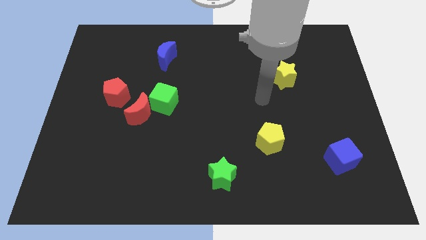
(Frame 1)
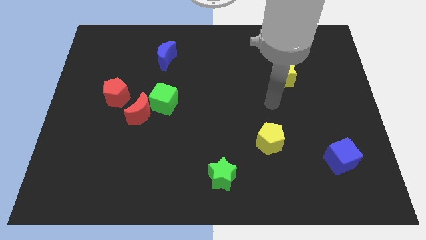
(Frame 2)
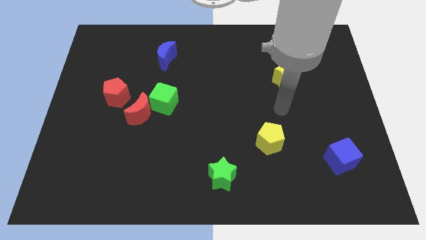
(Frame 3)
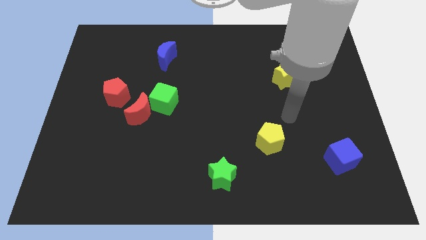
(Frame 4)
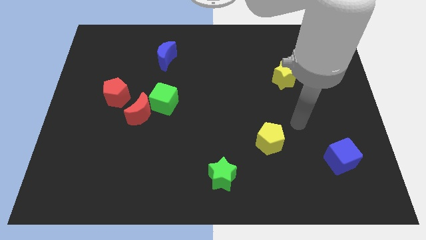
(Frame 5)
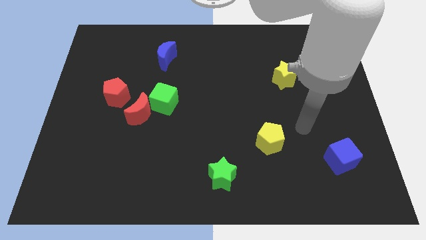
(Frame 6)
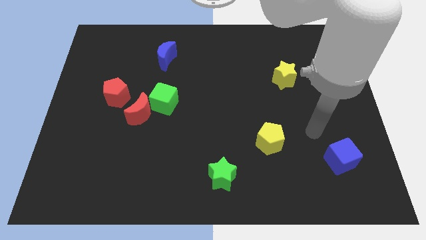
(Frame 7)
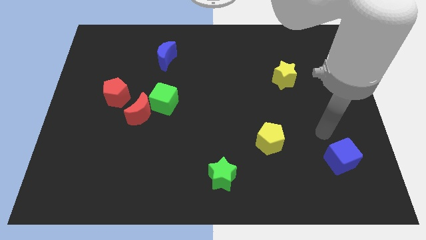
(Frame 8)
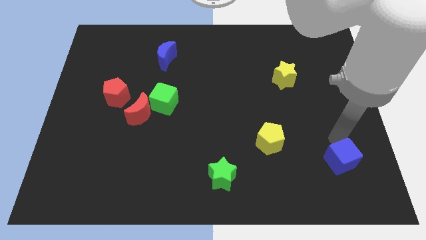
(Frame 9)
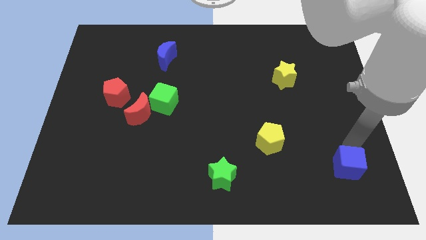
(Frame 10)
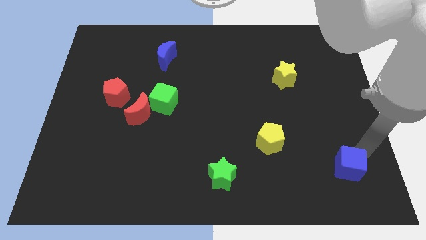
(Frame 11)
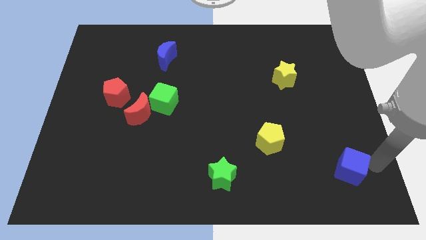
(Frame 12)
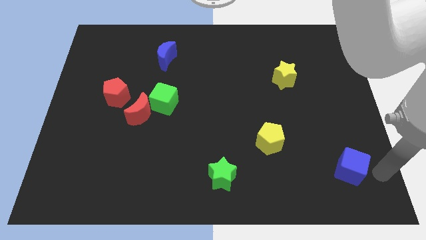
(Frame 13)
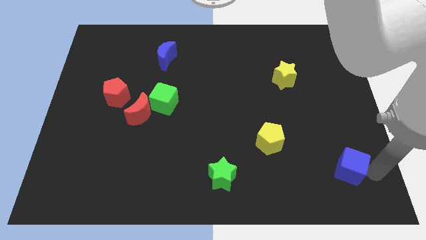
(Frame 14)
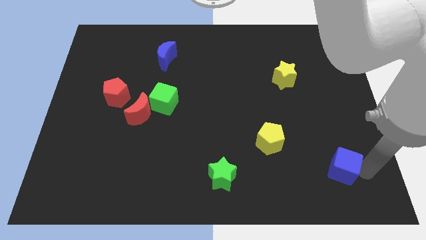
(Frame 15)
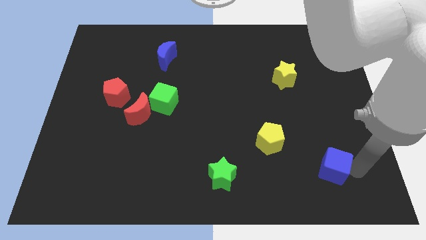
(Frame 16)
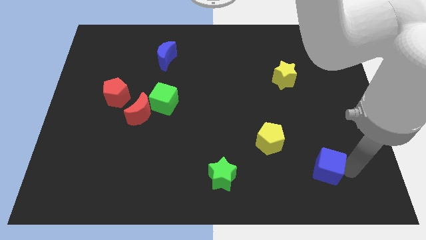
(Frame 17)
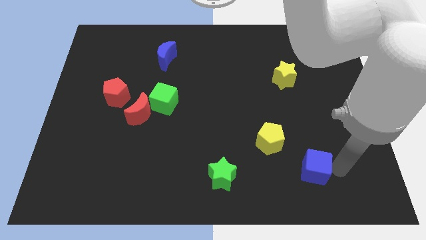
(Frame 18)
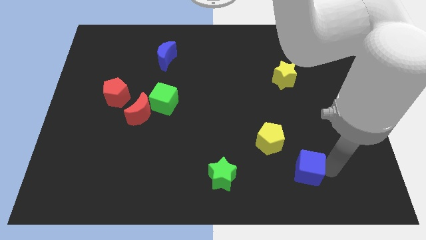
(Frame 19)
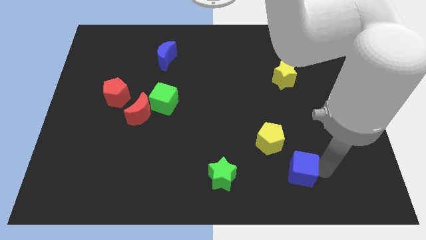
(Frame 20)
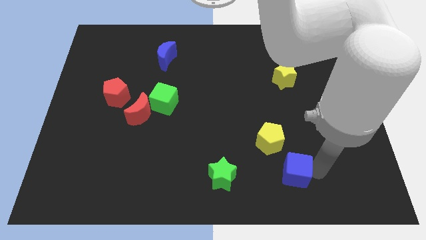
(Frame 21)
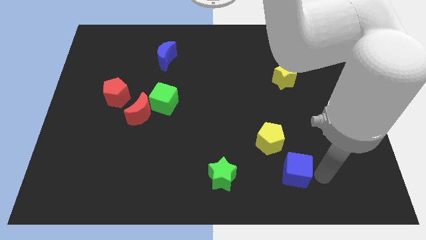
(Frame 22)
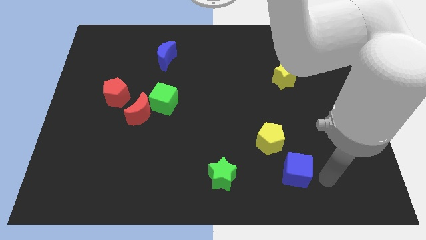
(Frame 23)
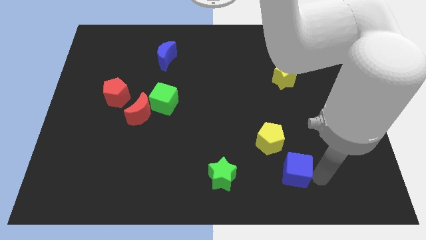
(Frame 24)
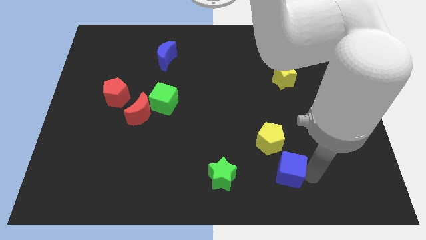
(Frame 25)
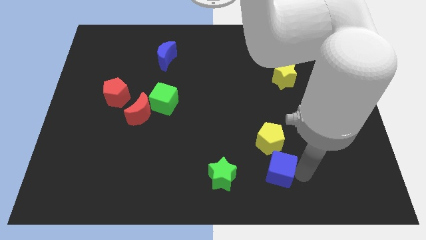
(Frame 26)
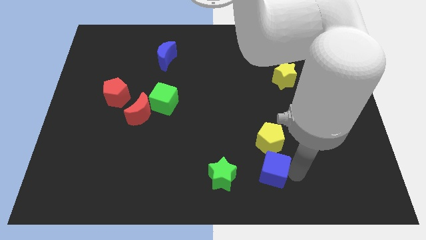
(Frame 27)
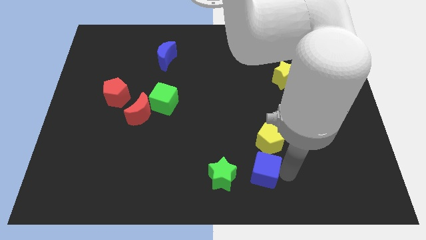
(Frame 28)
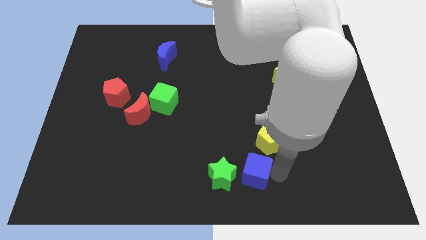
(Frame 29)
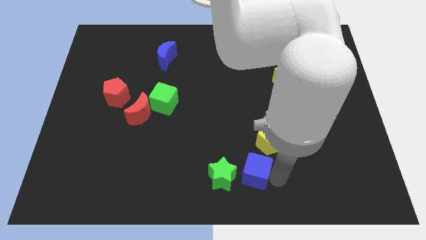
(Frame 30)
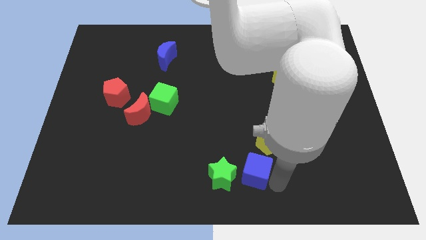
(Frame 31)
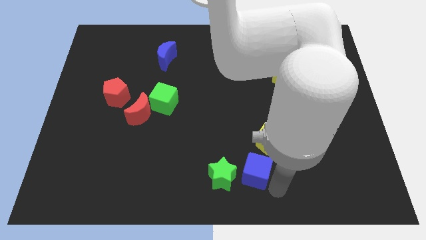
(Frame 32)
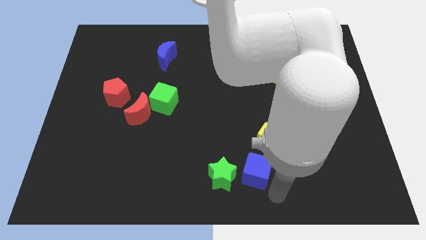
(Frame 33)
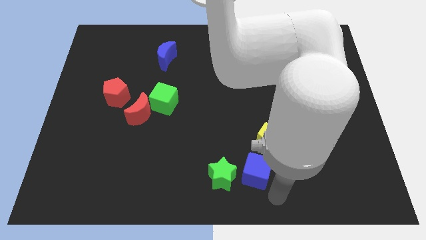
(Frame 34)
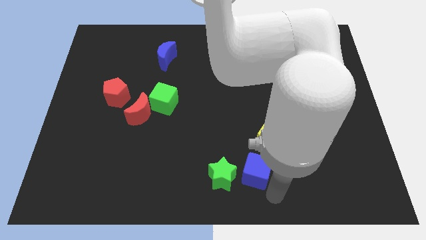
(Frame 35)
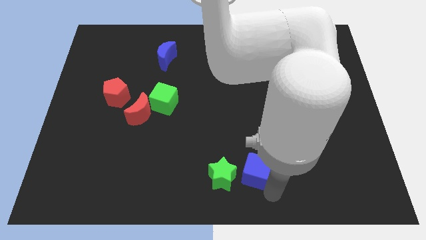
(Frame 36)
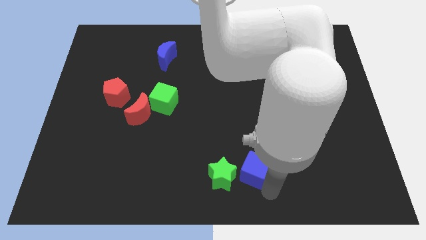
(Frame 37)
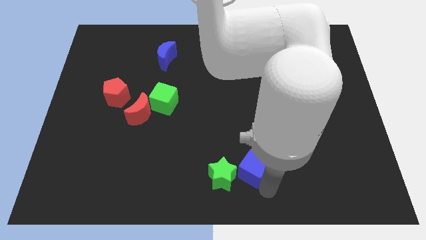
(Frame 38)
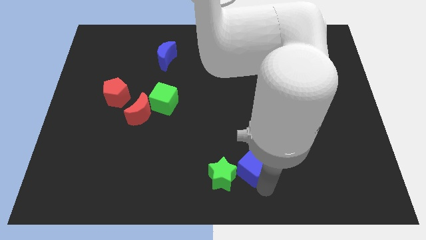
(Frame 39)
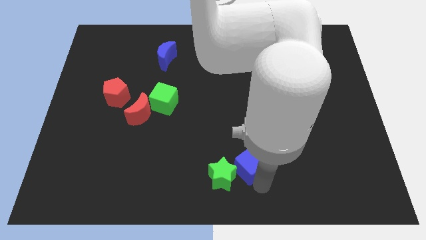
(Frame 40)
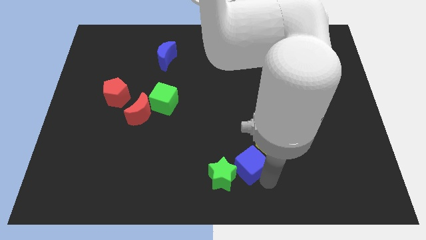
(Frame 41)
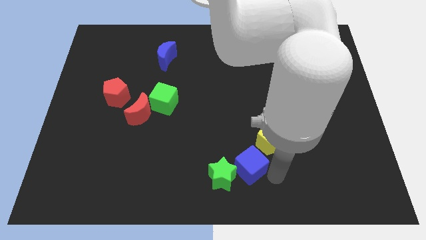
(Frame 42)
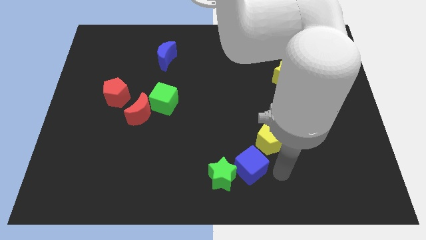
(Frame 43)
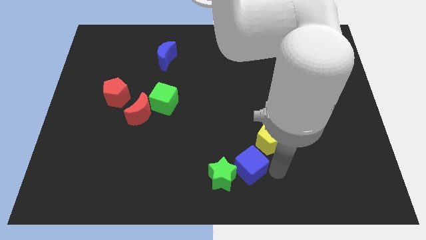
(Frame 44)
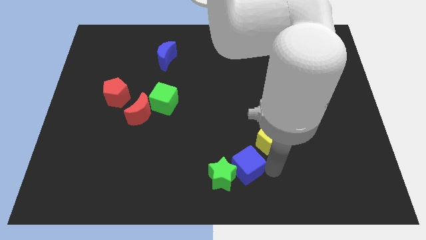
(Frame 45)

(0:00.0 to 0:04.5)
push the blue cube to the left

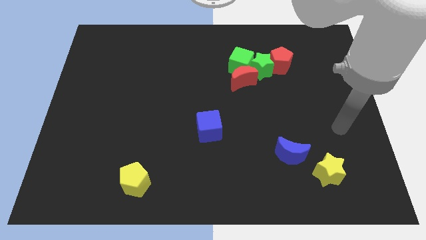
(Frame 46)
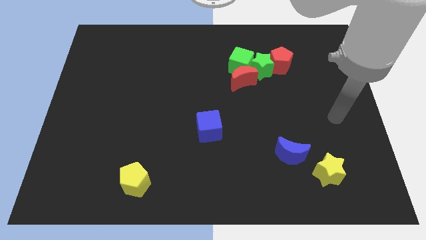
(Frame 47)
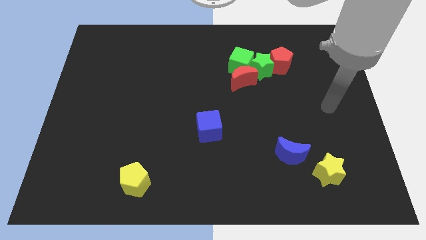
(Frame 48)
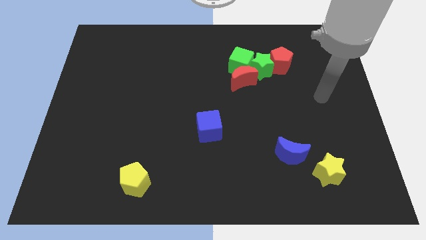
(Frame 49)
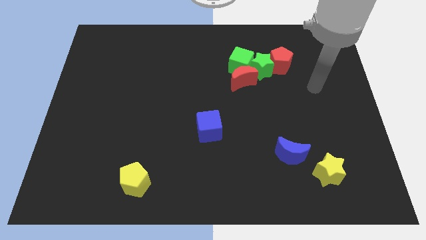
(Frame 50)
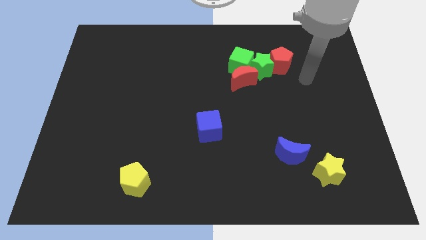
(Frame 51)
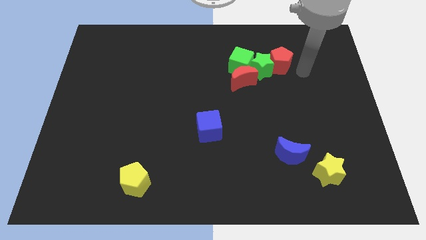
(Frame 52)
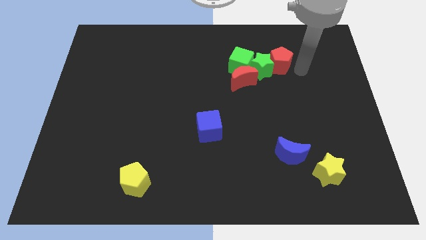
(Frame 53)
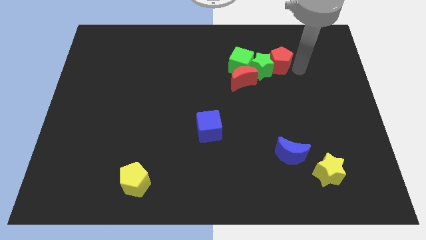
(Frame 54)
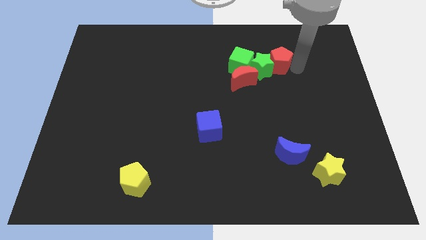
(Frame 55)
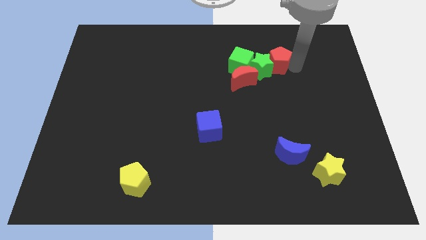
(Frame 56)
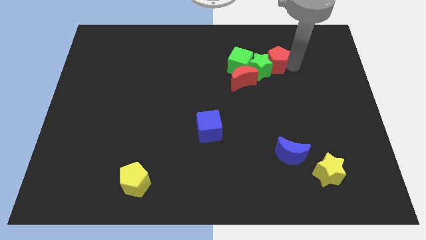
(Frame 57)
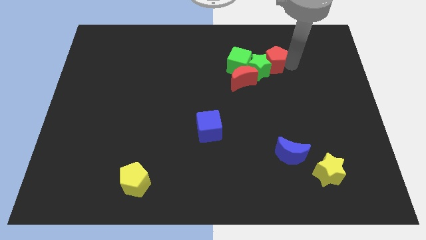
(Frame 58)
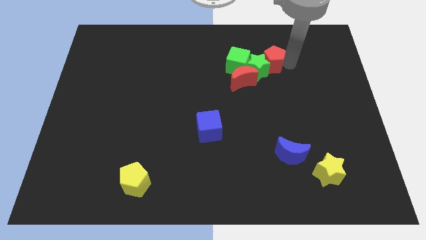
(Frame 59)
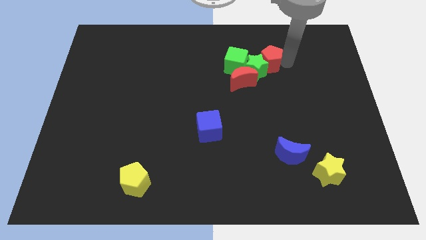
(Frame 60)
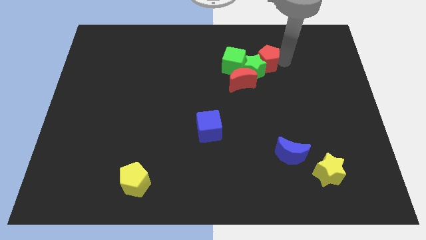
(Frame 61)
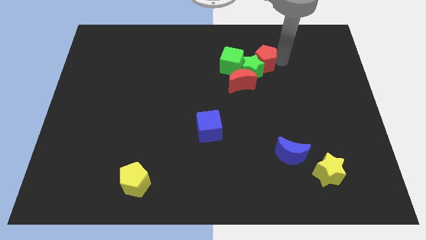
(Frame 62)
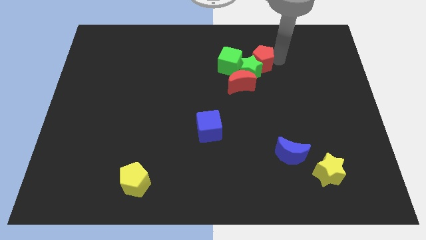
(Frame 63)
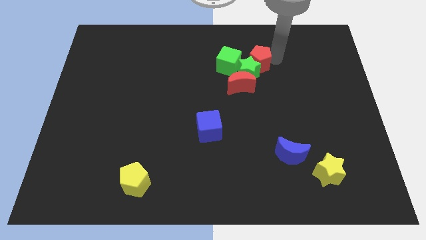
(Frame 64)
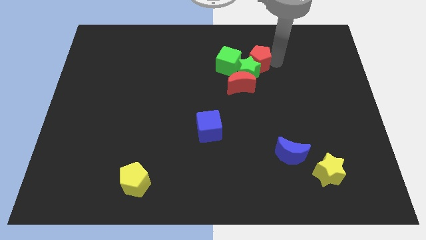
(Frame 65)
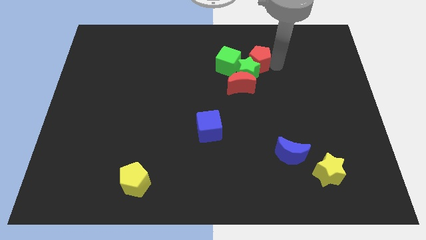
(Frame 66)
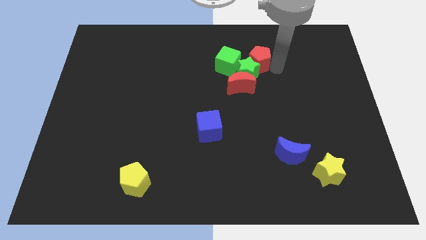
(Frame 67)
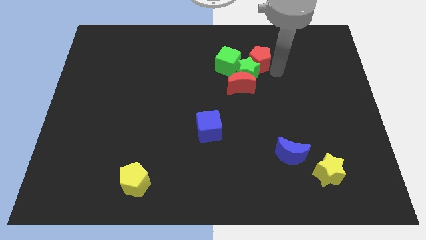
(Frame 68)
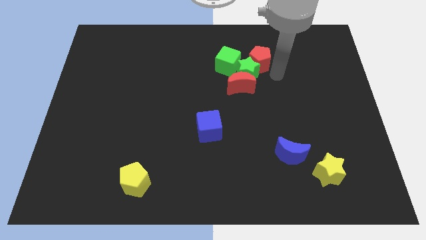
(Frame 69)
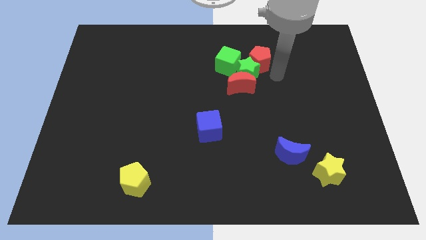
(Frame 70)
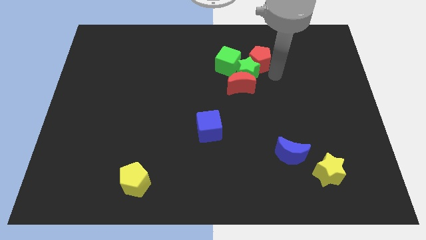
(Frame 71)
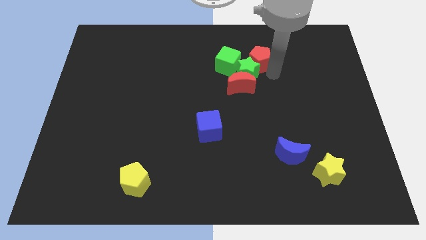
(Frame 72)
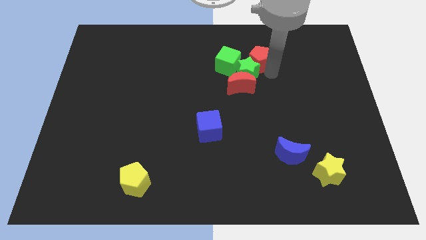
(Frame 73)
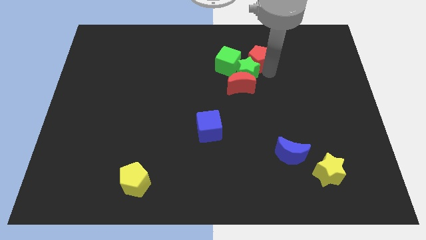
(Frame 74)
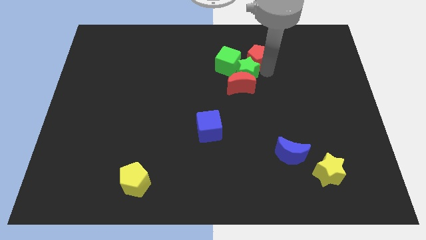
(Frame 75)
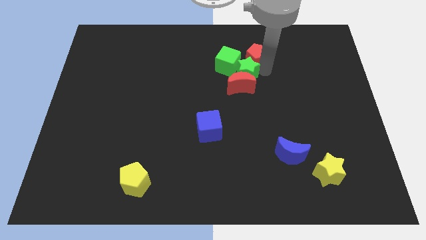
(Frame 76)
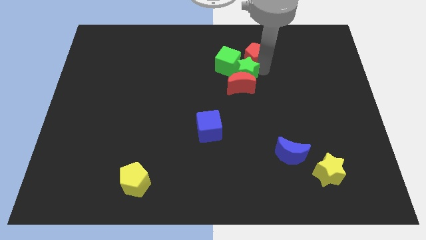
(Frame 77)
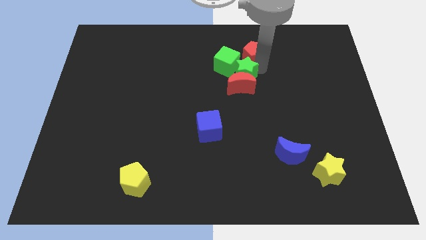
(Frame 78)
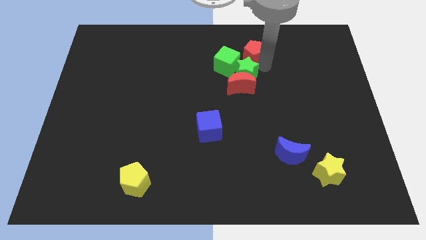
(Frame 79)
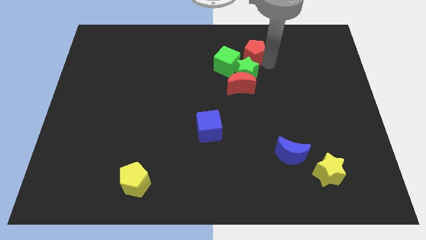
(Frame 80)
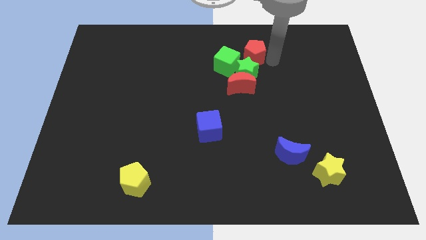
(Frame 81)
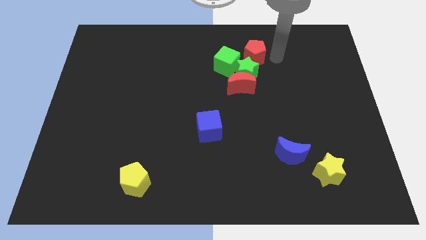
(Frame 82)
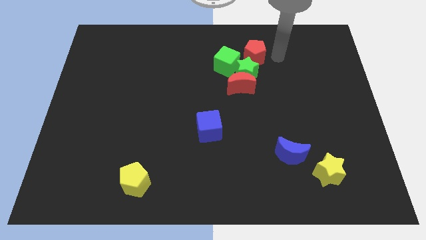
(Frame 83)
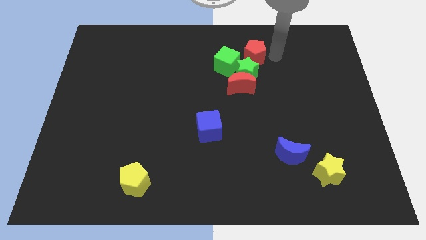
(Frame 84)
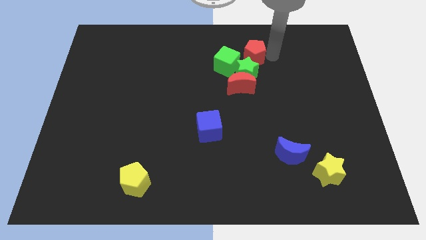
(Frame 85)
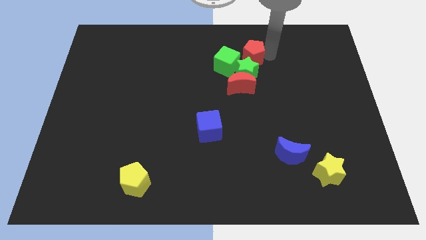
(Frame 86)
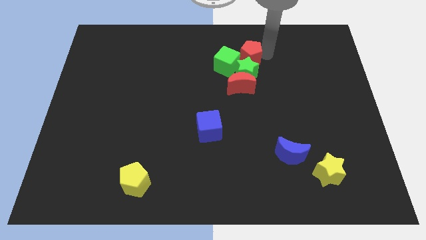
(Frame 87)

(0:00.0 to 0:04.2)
slightly move the red pentagon left
